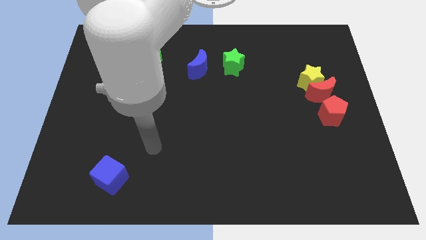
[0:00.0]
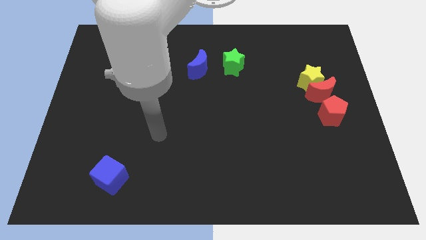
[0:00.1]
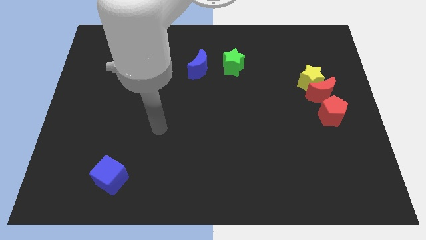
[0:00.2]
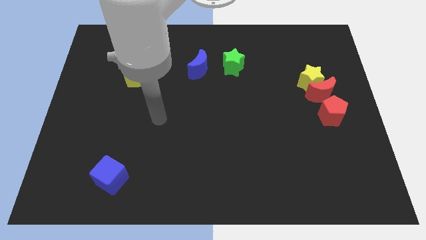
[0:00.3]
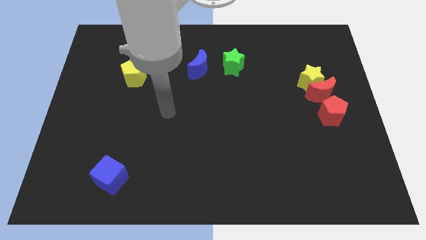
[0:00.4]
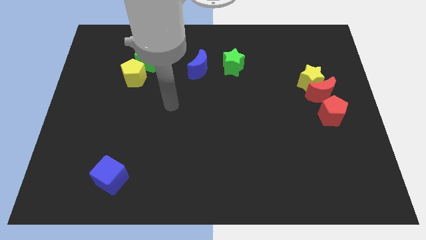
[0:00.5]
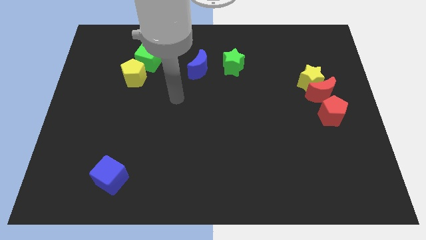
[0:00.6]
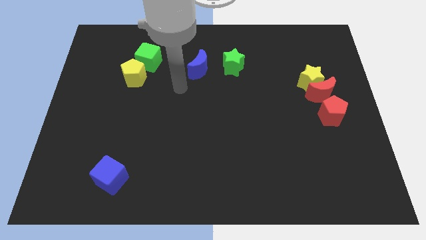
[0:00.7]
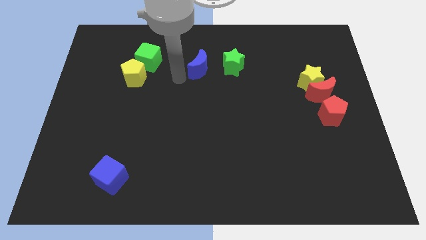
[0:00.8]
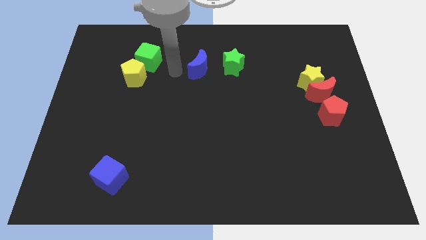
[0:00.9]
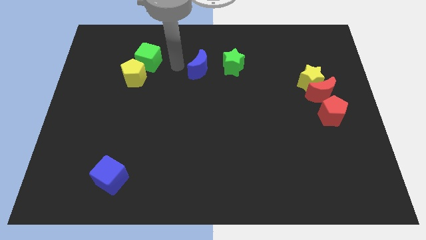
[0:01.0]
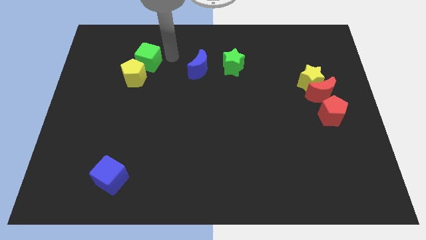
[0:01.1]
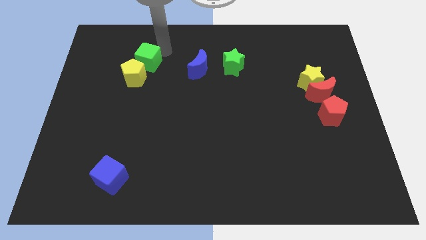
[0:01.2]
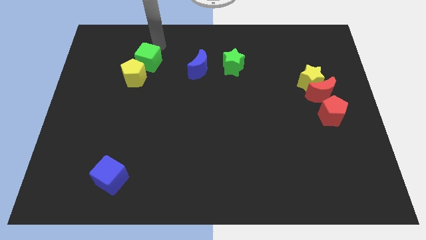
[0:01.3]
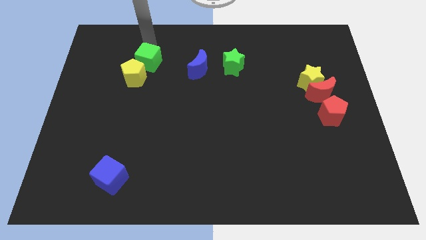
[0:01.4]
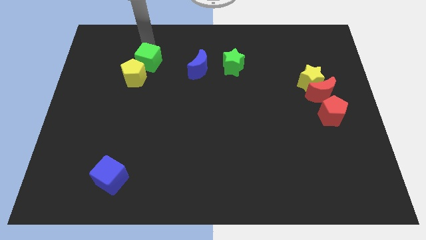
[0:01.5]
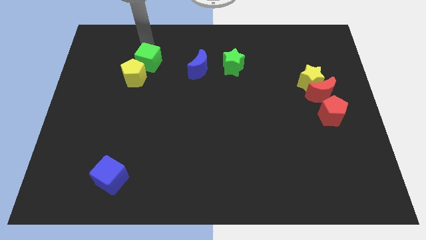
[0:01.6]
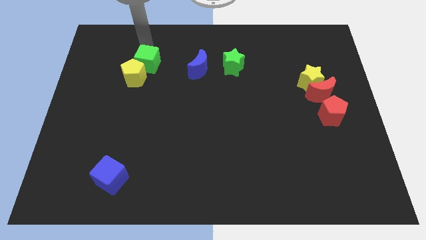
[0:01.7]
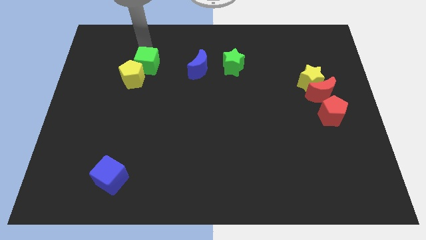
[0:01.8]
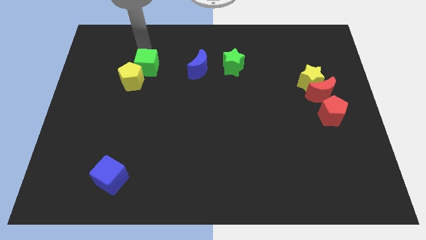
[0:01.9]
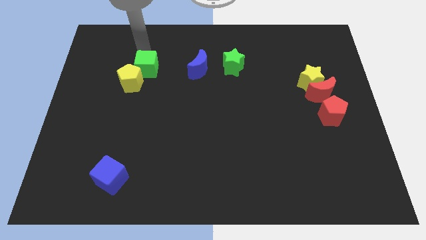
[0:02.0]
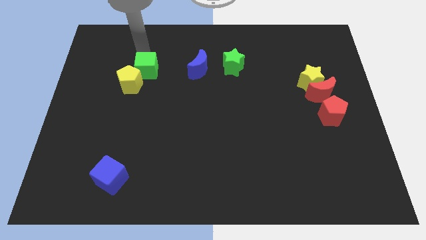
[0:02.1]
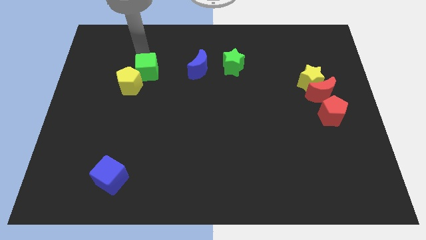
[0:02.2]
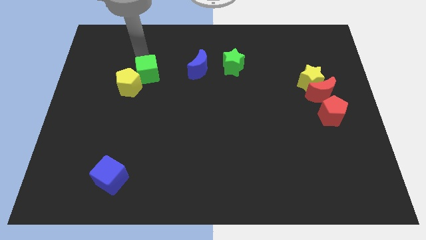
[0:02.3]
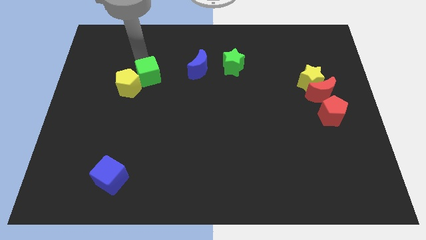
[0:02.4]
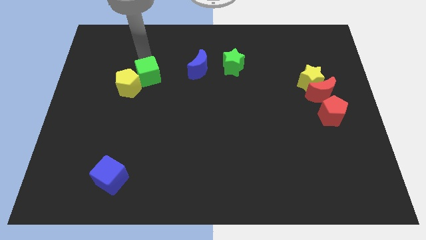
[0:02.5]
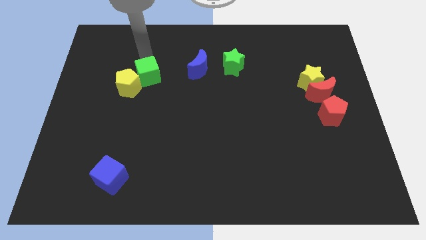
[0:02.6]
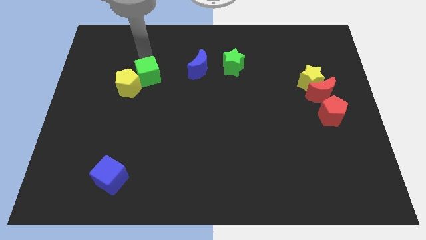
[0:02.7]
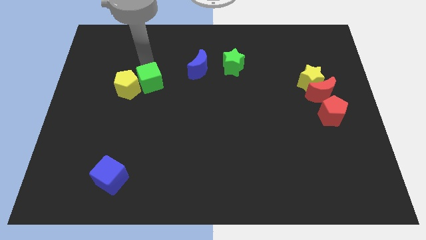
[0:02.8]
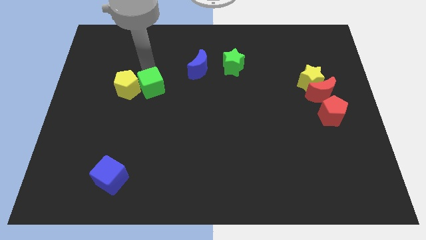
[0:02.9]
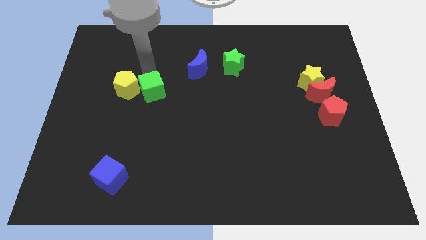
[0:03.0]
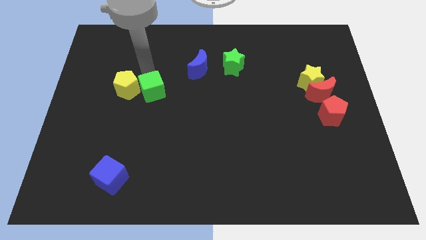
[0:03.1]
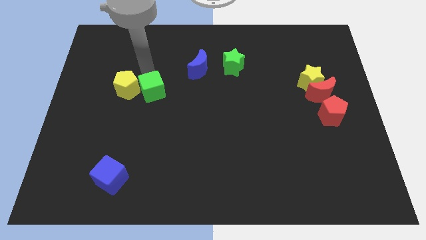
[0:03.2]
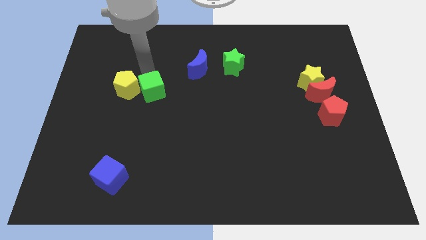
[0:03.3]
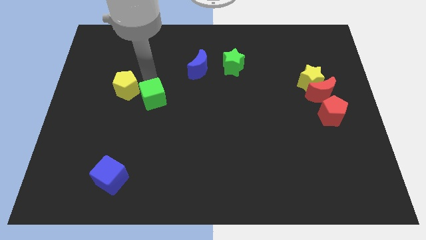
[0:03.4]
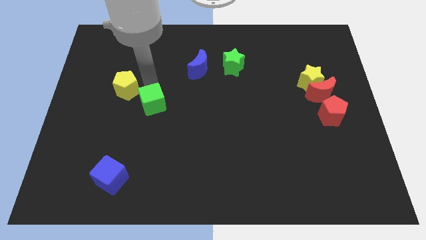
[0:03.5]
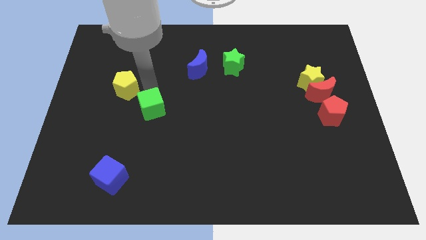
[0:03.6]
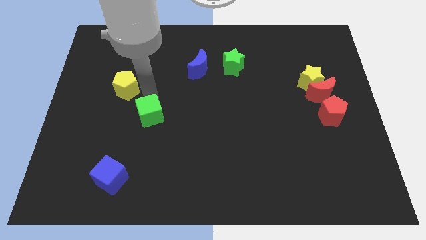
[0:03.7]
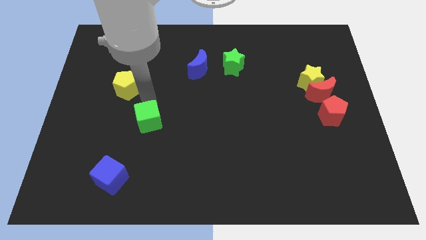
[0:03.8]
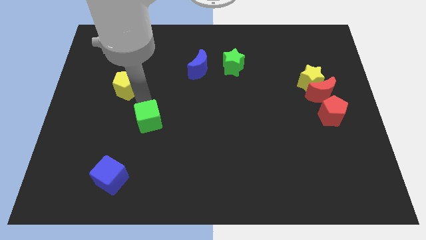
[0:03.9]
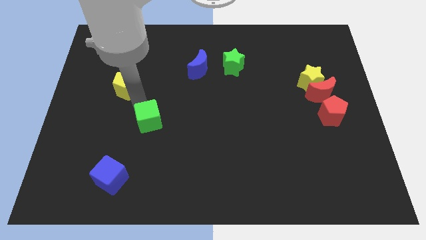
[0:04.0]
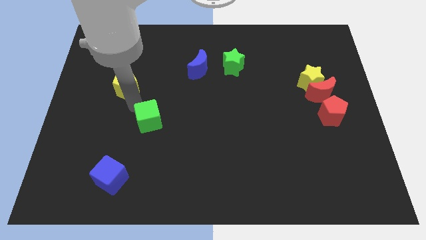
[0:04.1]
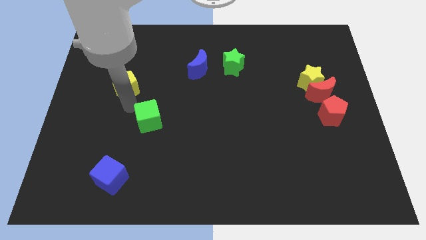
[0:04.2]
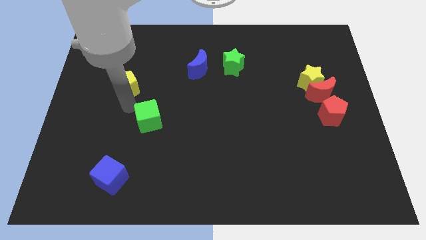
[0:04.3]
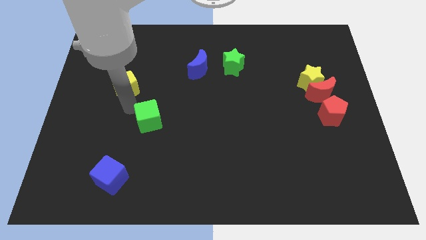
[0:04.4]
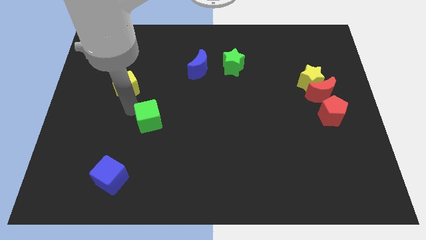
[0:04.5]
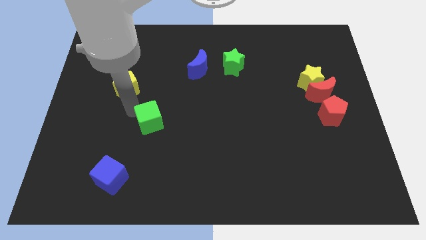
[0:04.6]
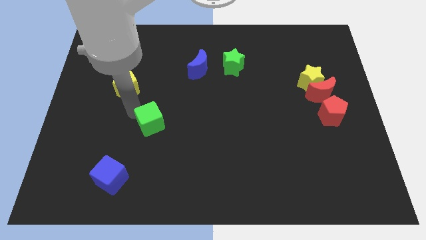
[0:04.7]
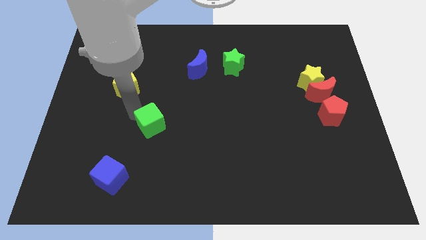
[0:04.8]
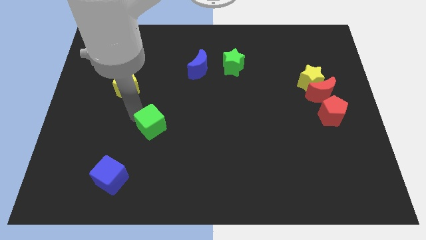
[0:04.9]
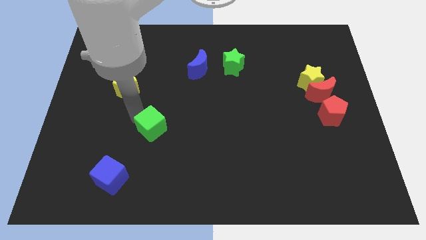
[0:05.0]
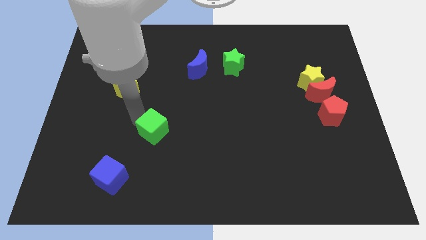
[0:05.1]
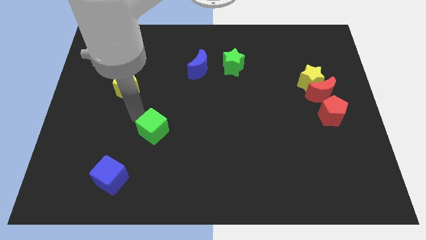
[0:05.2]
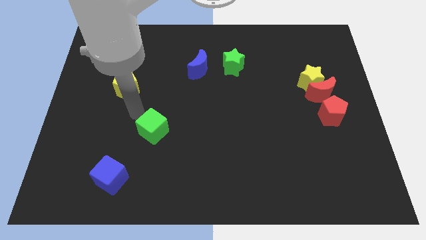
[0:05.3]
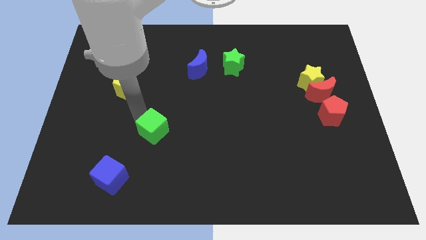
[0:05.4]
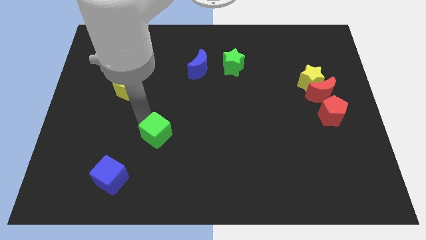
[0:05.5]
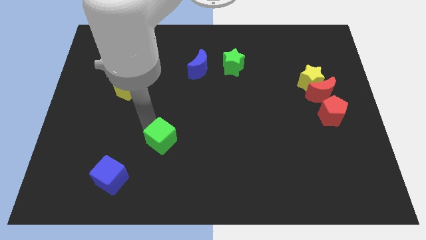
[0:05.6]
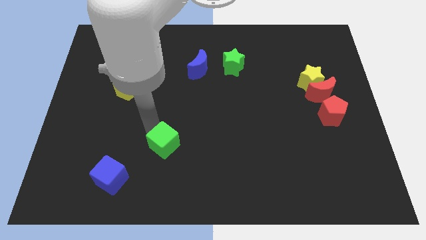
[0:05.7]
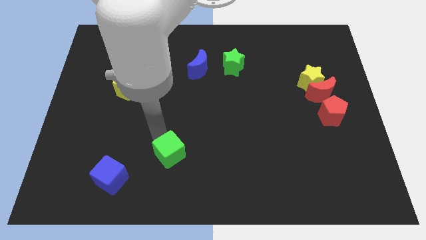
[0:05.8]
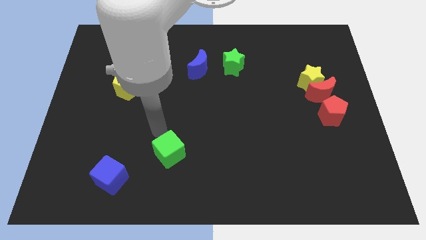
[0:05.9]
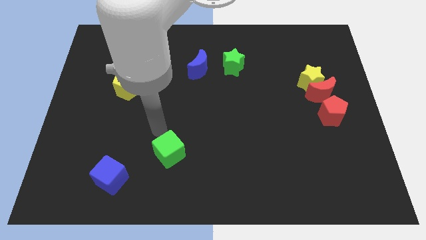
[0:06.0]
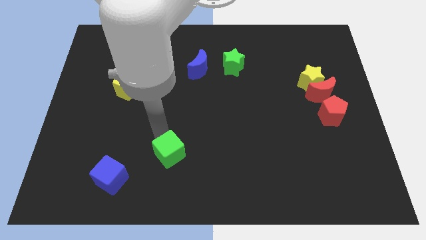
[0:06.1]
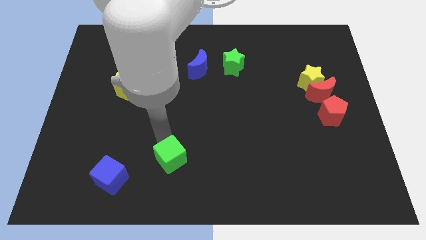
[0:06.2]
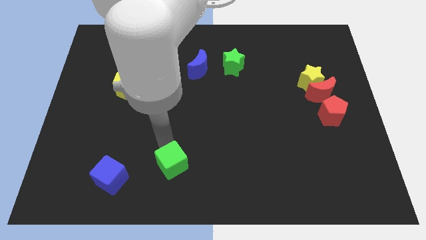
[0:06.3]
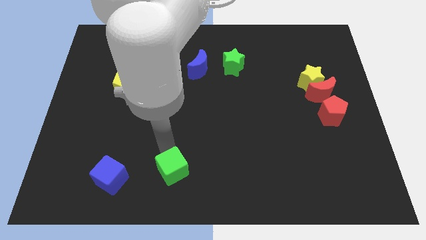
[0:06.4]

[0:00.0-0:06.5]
push the green cube to the bottom side

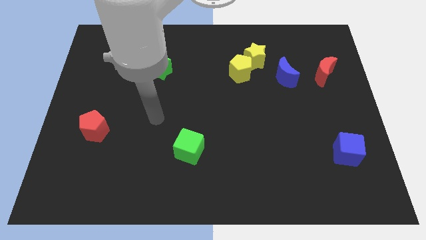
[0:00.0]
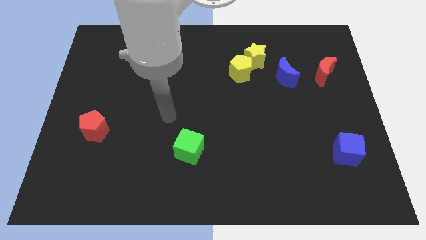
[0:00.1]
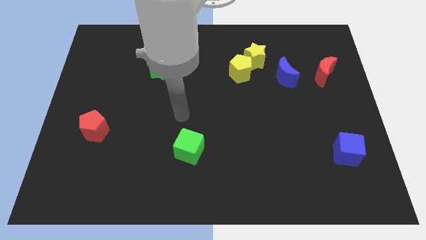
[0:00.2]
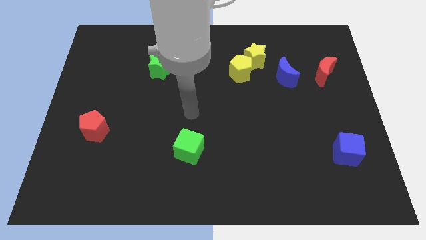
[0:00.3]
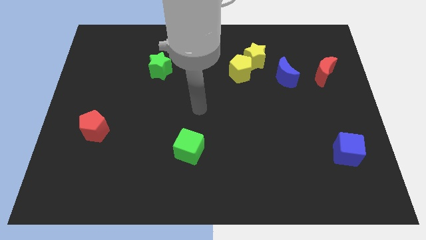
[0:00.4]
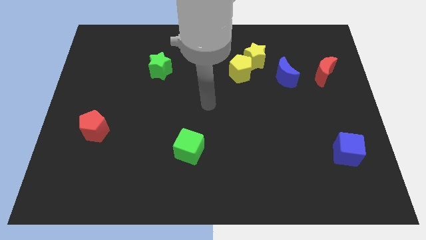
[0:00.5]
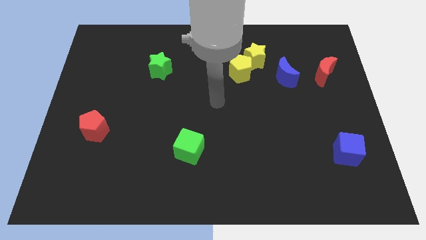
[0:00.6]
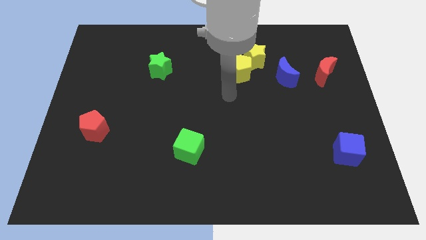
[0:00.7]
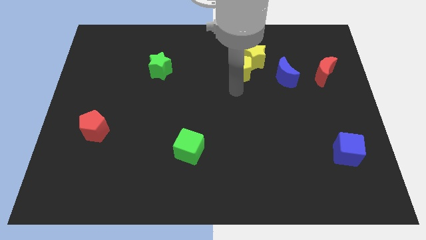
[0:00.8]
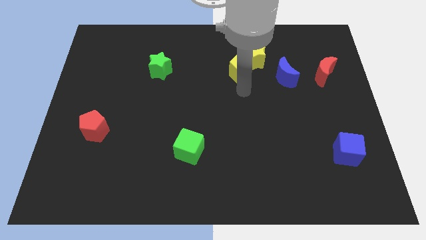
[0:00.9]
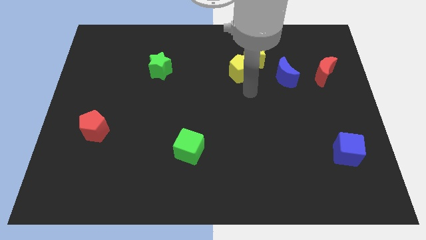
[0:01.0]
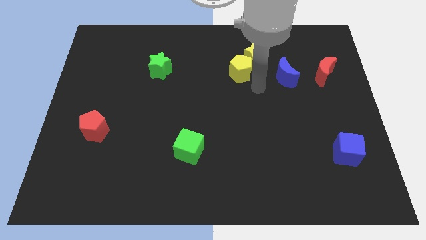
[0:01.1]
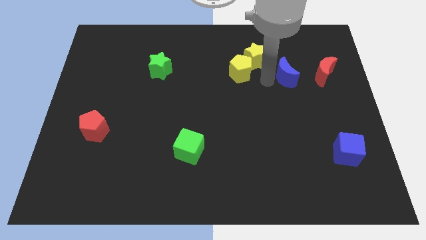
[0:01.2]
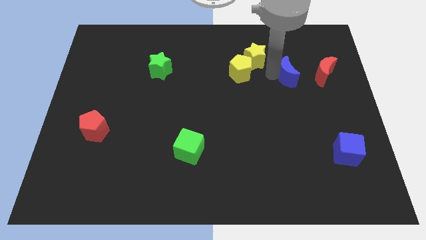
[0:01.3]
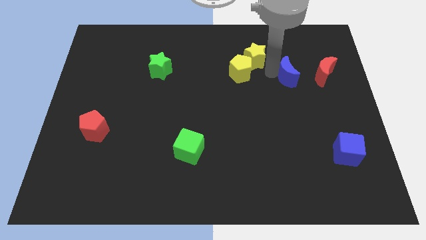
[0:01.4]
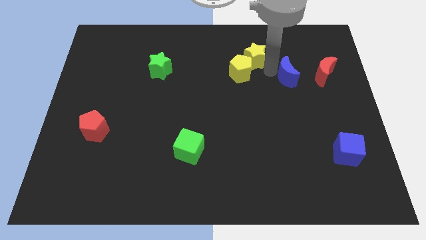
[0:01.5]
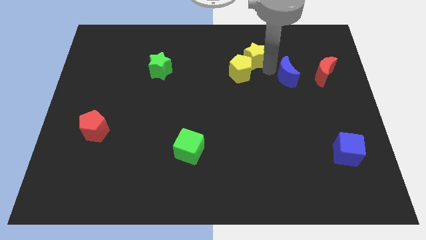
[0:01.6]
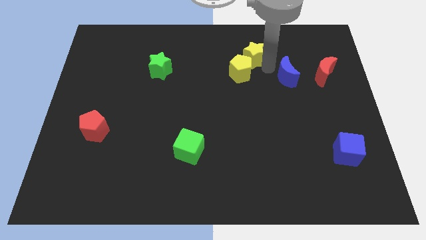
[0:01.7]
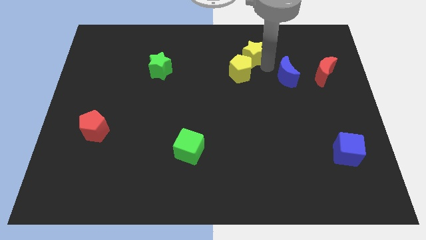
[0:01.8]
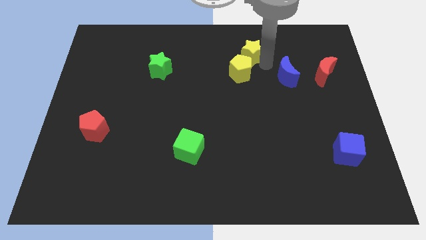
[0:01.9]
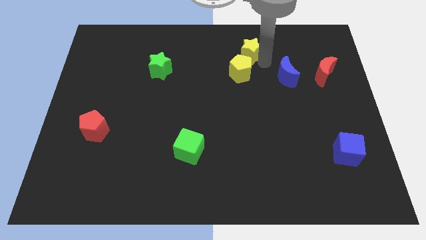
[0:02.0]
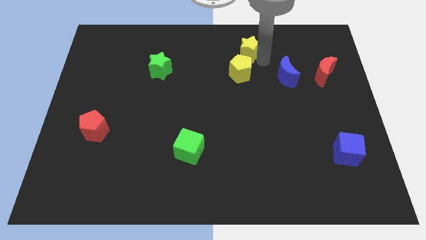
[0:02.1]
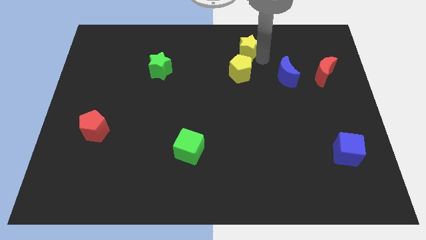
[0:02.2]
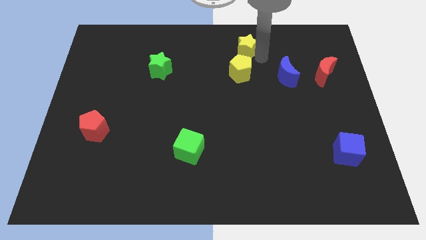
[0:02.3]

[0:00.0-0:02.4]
slide the yellow star to the top side
